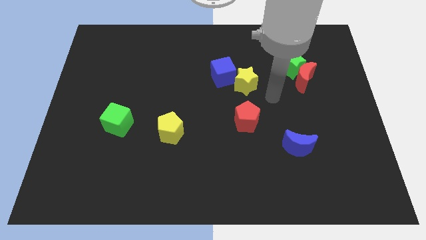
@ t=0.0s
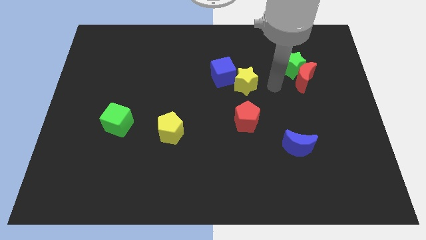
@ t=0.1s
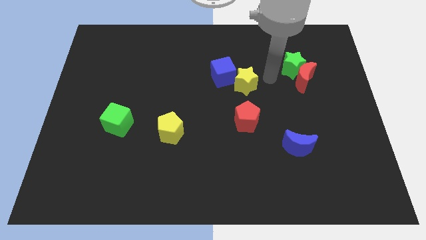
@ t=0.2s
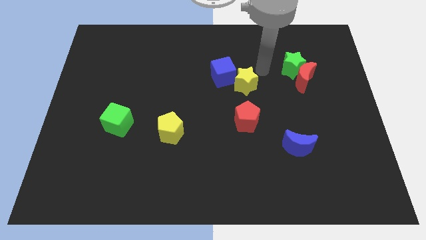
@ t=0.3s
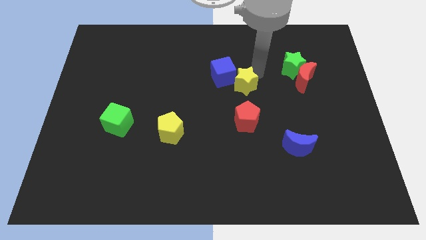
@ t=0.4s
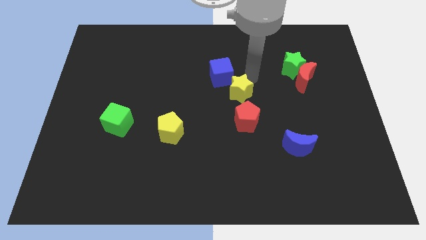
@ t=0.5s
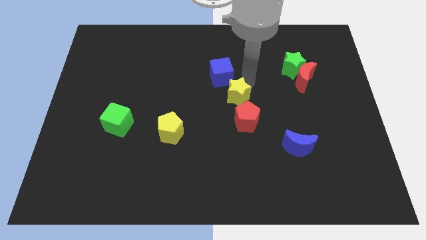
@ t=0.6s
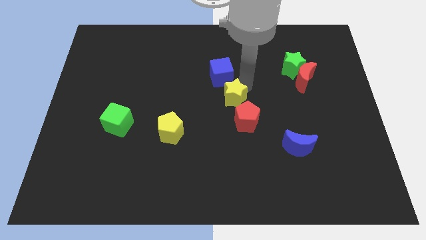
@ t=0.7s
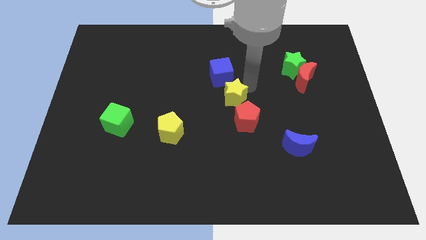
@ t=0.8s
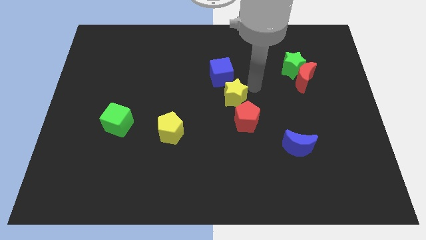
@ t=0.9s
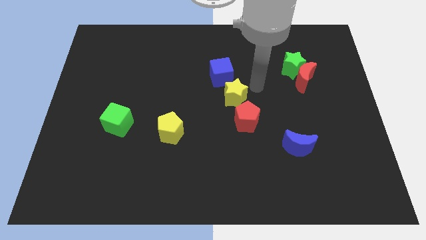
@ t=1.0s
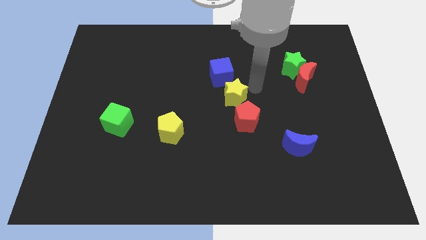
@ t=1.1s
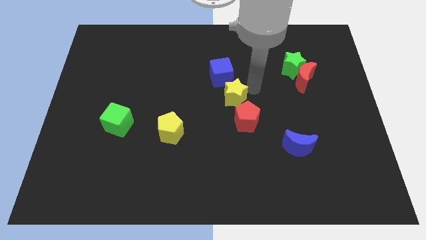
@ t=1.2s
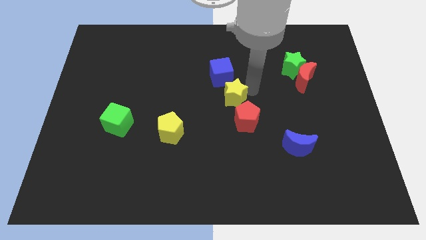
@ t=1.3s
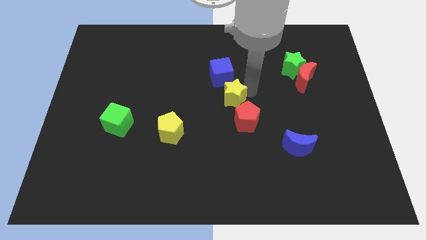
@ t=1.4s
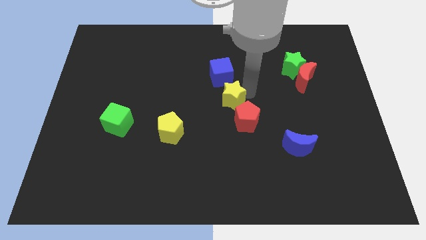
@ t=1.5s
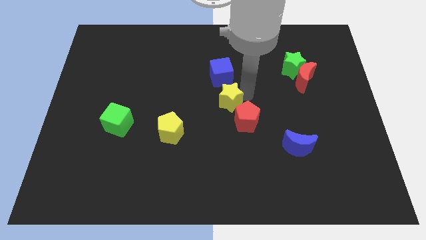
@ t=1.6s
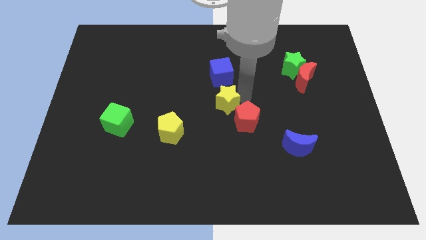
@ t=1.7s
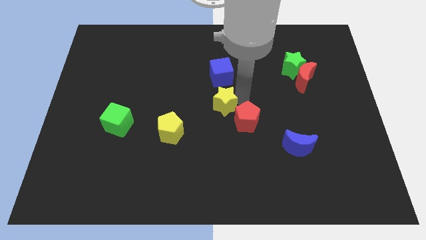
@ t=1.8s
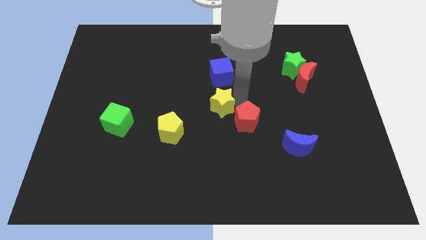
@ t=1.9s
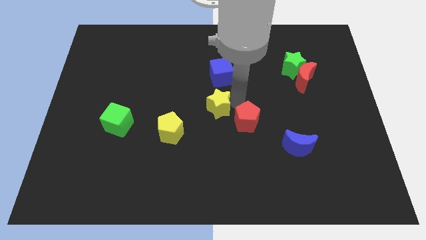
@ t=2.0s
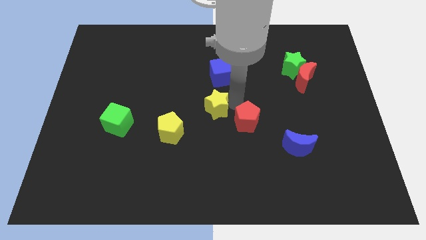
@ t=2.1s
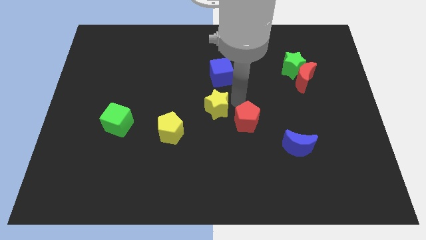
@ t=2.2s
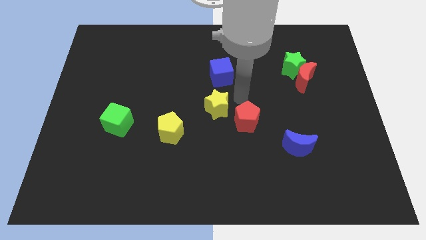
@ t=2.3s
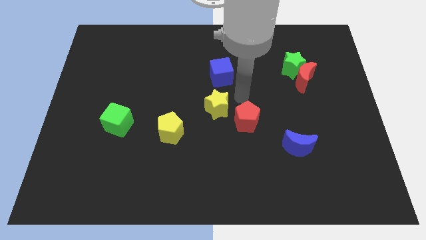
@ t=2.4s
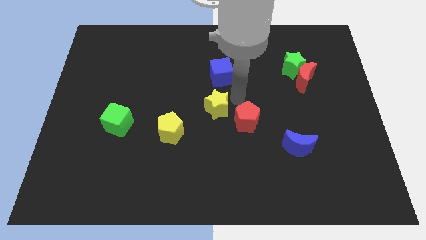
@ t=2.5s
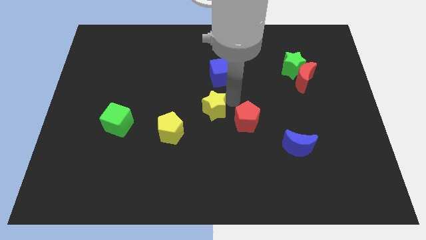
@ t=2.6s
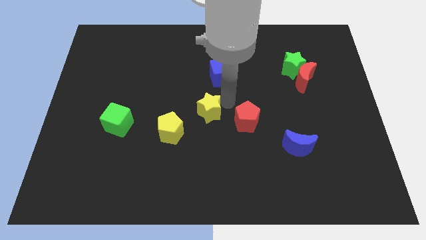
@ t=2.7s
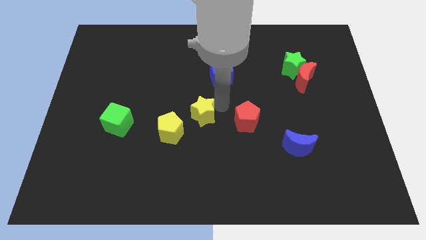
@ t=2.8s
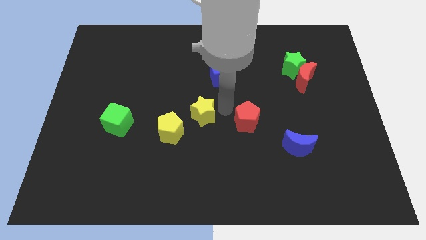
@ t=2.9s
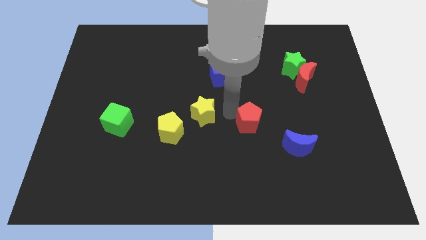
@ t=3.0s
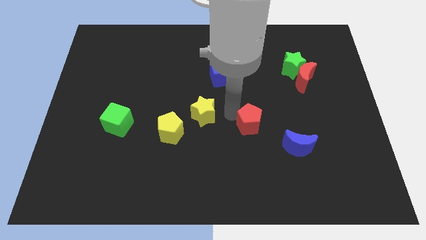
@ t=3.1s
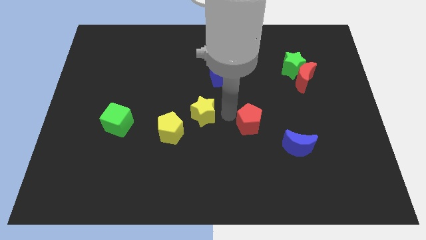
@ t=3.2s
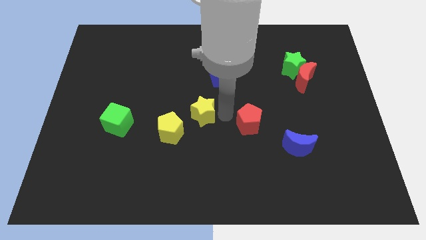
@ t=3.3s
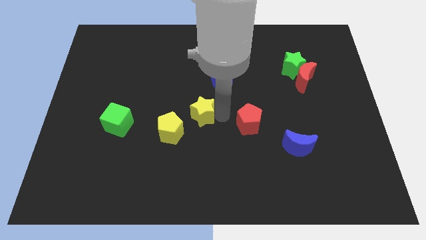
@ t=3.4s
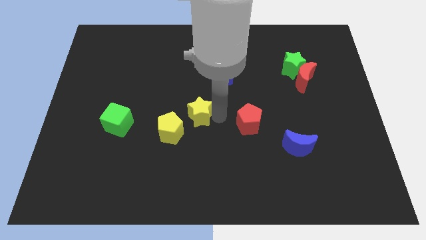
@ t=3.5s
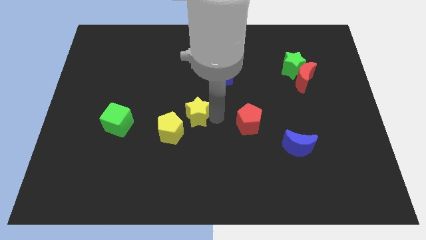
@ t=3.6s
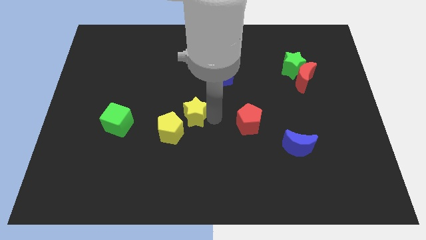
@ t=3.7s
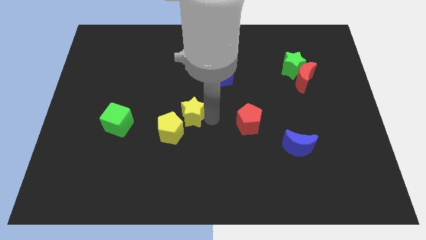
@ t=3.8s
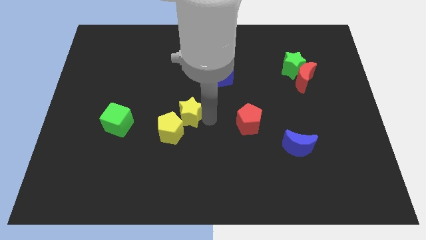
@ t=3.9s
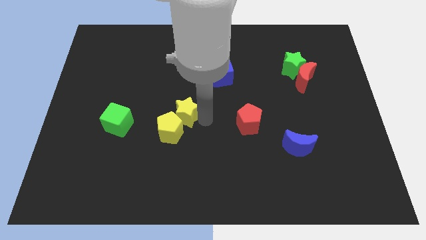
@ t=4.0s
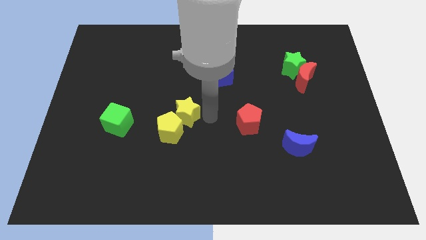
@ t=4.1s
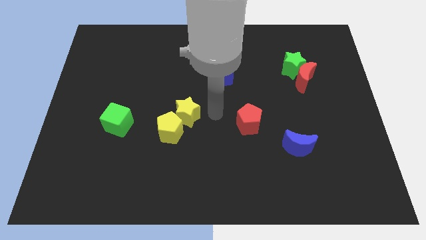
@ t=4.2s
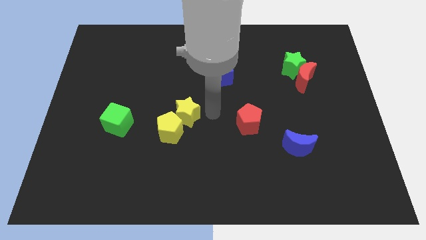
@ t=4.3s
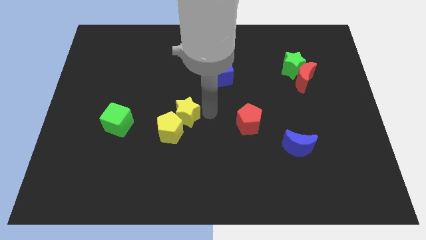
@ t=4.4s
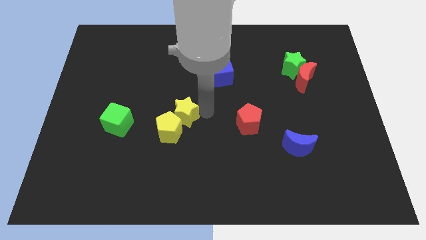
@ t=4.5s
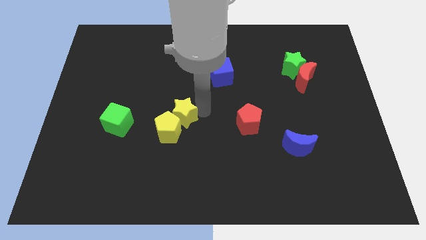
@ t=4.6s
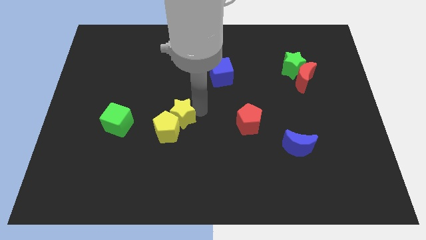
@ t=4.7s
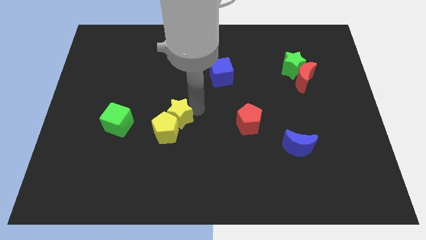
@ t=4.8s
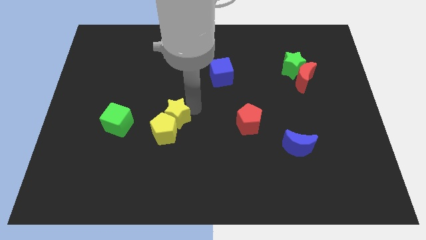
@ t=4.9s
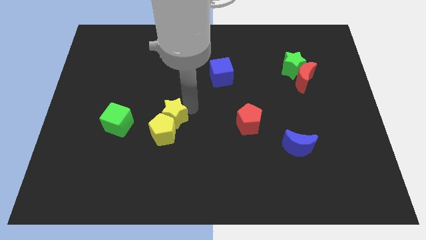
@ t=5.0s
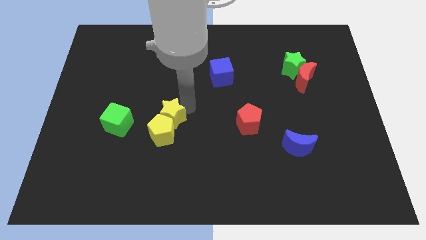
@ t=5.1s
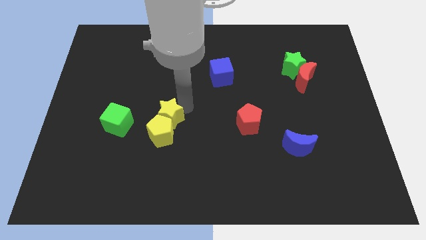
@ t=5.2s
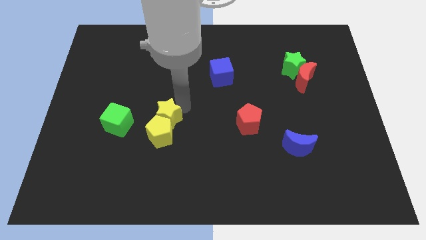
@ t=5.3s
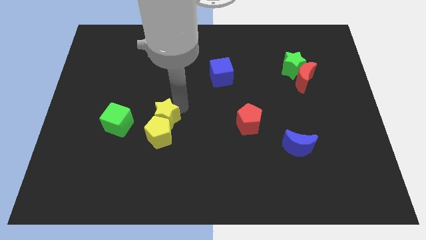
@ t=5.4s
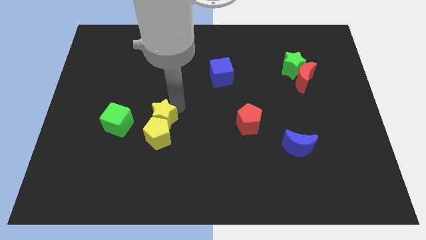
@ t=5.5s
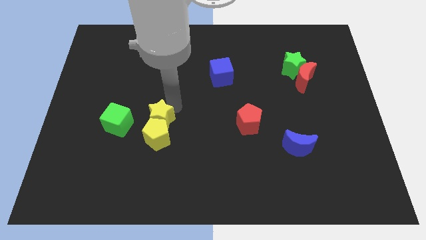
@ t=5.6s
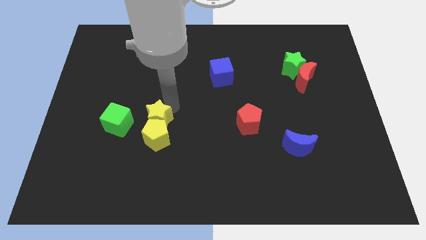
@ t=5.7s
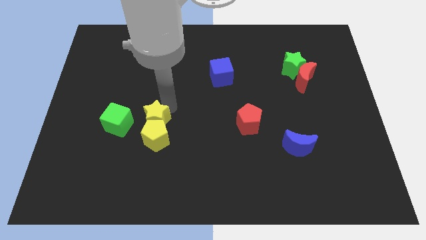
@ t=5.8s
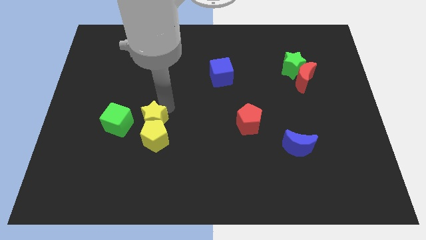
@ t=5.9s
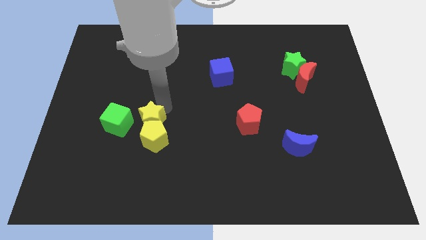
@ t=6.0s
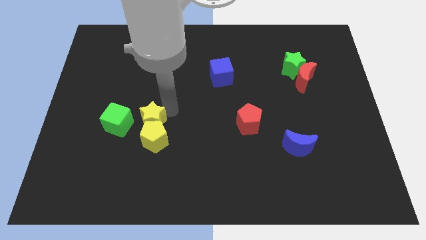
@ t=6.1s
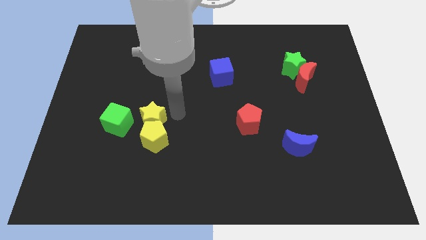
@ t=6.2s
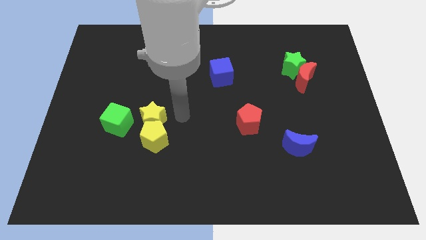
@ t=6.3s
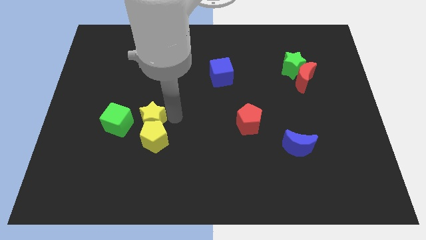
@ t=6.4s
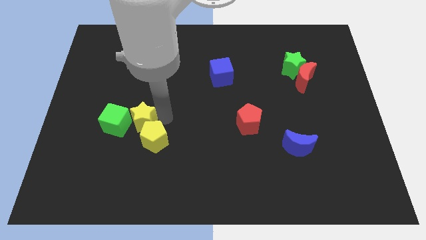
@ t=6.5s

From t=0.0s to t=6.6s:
push the yellow star next to the green cube

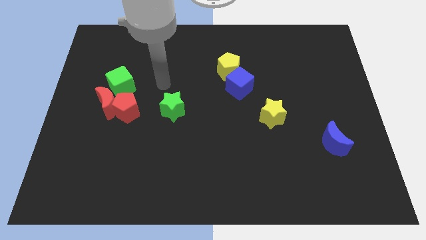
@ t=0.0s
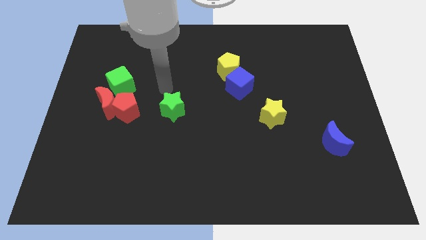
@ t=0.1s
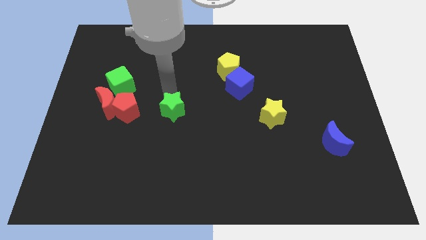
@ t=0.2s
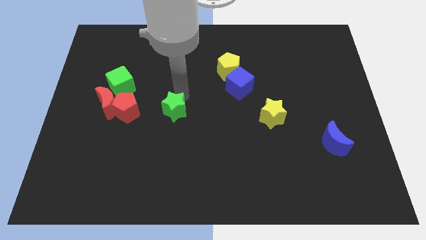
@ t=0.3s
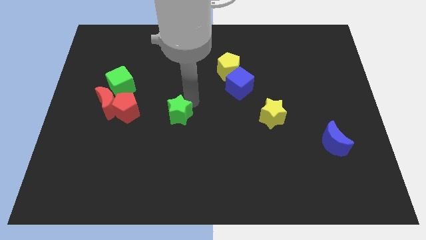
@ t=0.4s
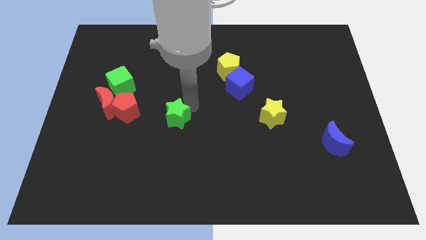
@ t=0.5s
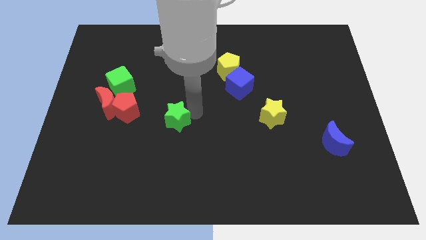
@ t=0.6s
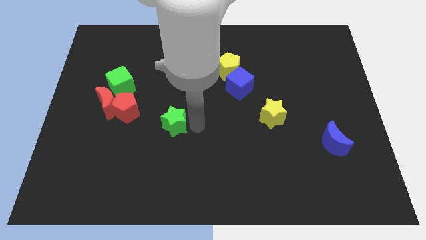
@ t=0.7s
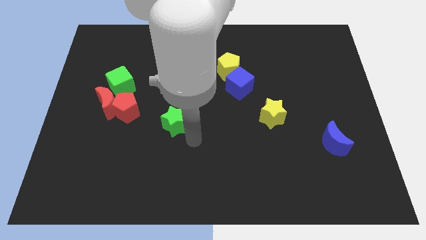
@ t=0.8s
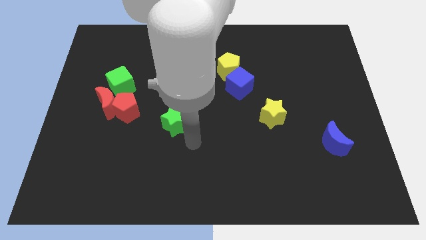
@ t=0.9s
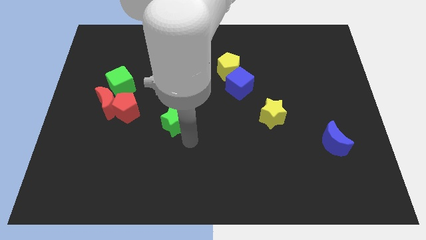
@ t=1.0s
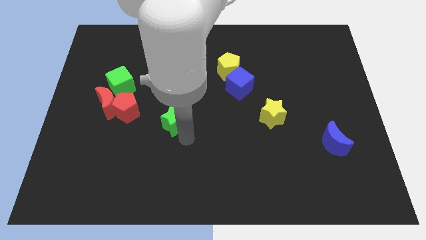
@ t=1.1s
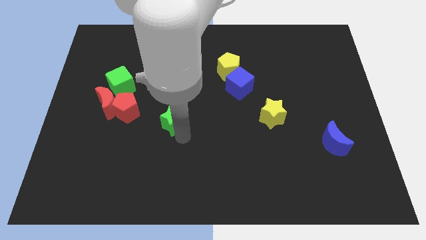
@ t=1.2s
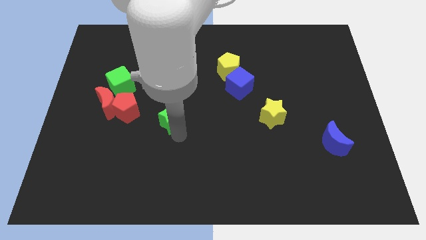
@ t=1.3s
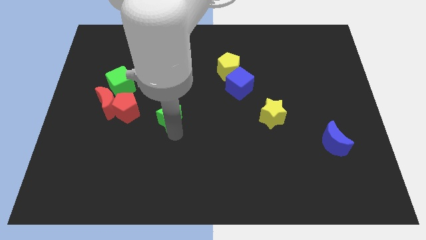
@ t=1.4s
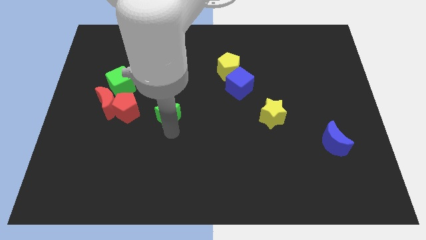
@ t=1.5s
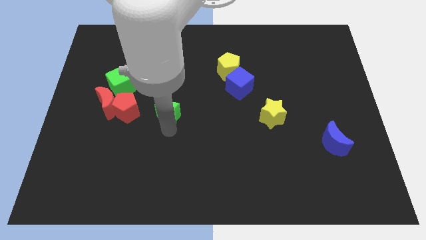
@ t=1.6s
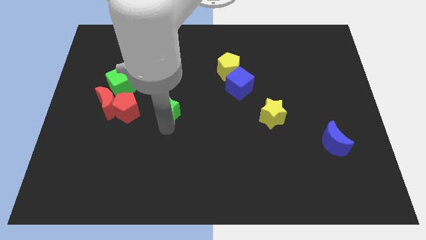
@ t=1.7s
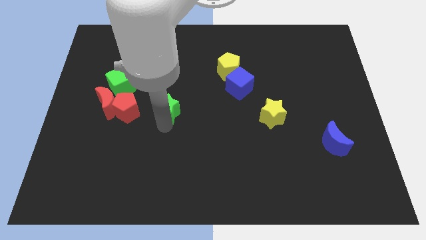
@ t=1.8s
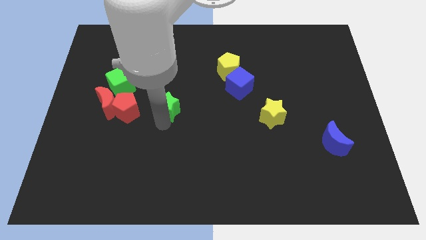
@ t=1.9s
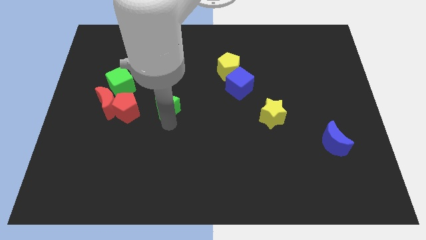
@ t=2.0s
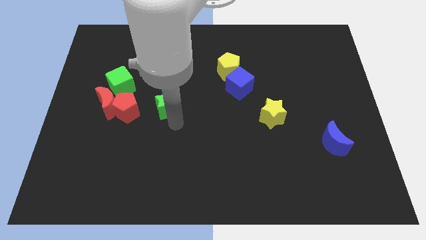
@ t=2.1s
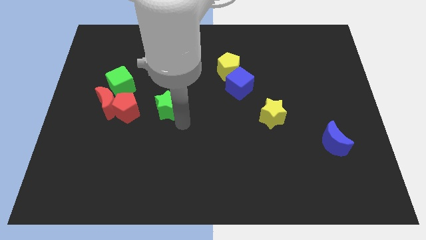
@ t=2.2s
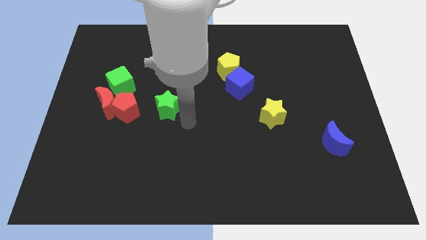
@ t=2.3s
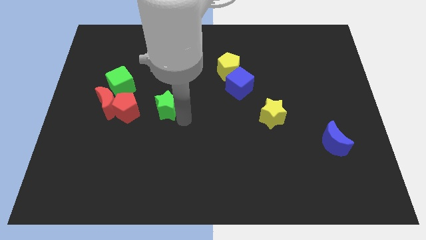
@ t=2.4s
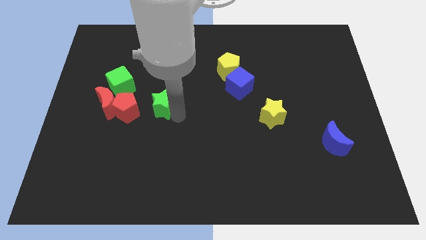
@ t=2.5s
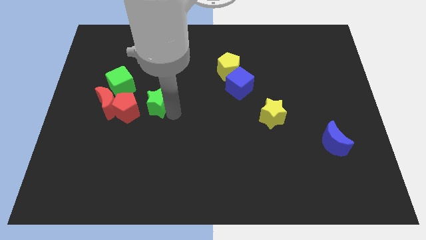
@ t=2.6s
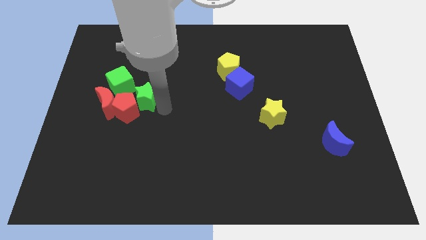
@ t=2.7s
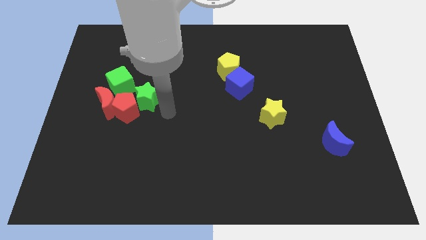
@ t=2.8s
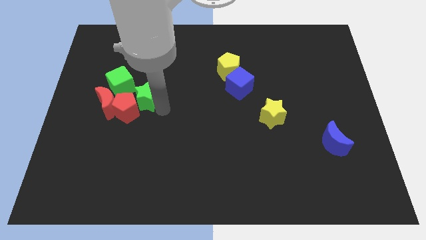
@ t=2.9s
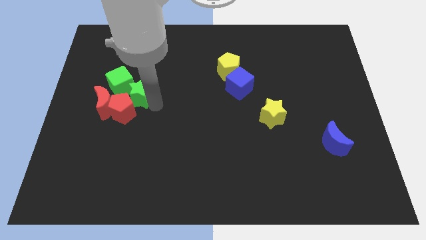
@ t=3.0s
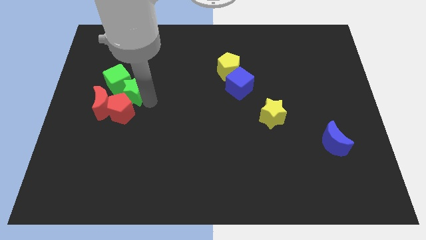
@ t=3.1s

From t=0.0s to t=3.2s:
put the green star close to the green cube
